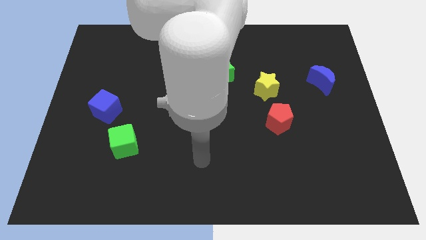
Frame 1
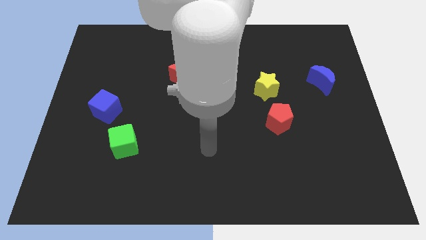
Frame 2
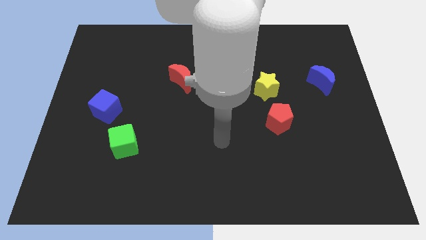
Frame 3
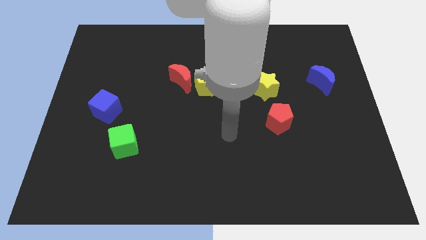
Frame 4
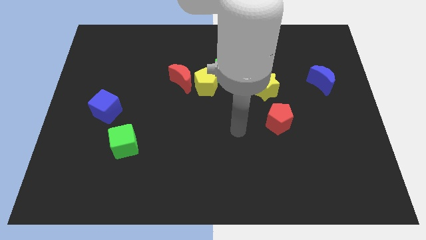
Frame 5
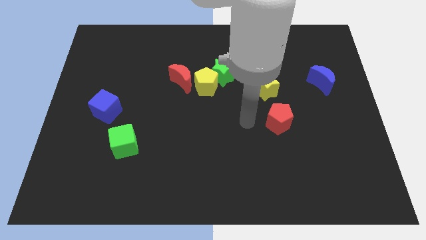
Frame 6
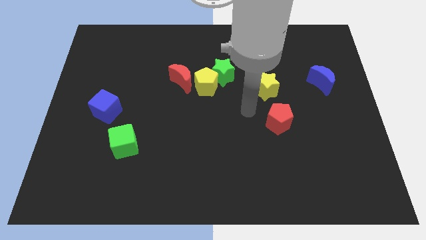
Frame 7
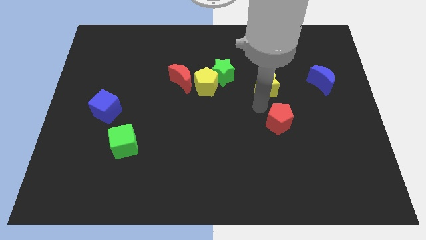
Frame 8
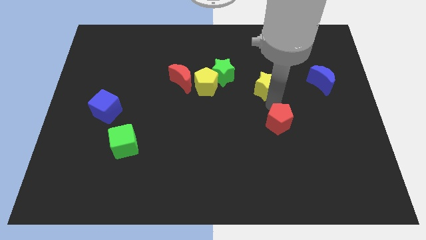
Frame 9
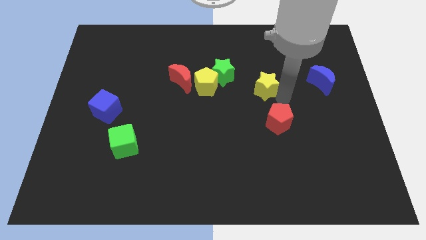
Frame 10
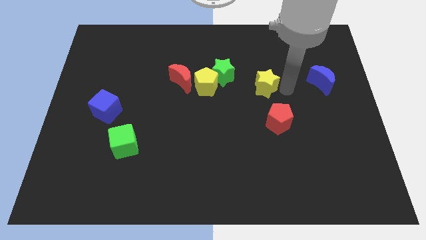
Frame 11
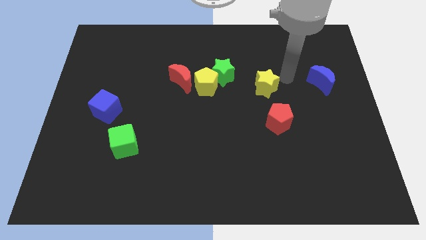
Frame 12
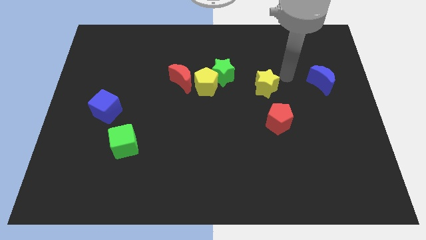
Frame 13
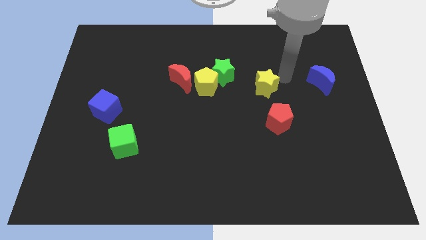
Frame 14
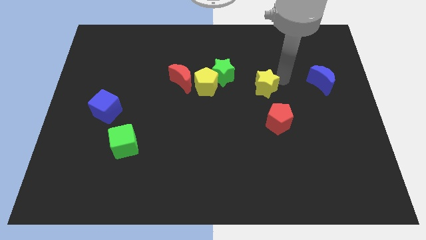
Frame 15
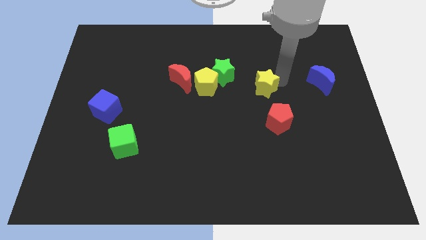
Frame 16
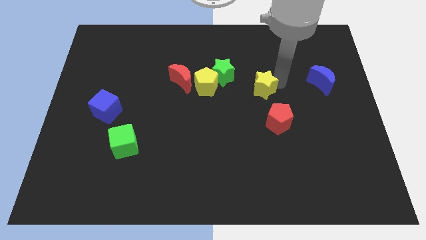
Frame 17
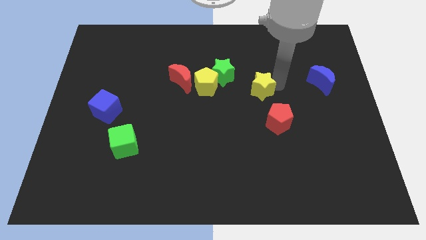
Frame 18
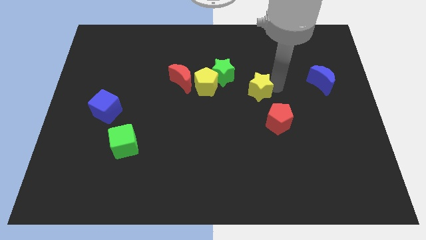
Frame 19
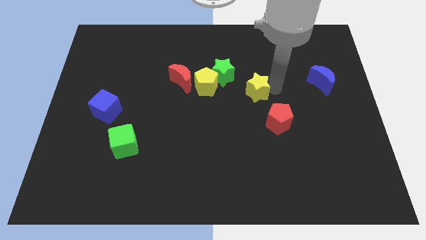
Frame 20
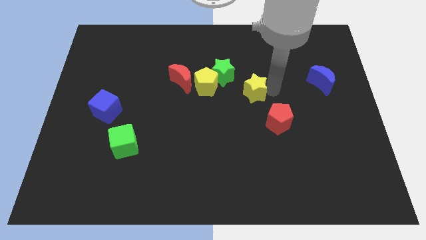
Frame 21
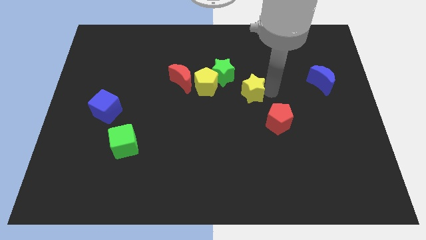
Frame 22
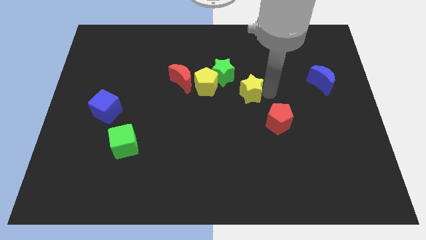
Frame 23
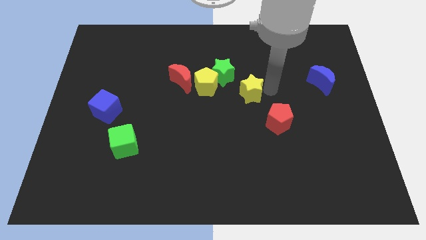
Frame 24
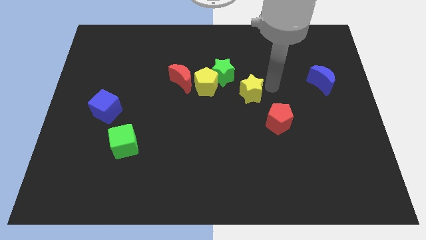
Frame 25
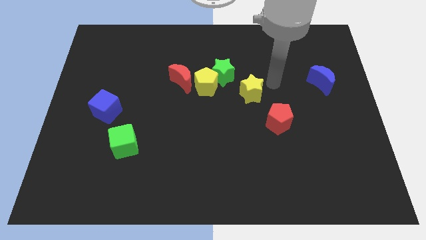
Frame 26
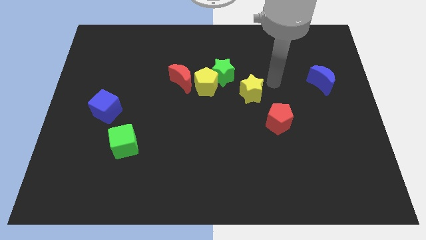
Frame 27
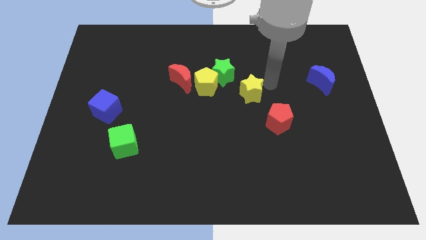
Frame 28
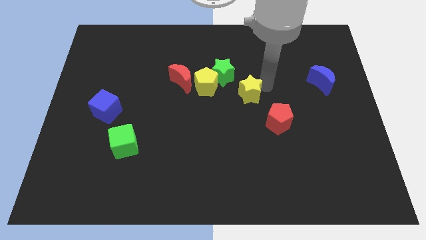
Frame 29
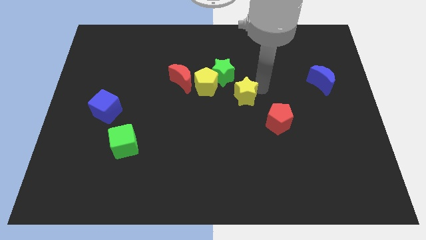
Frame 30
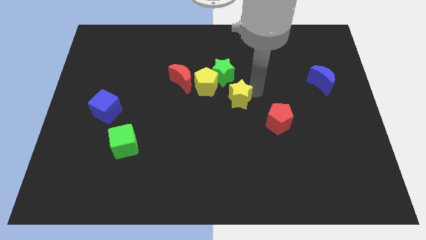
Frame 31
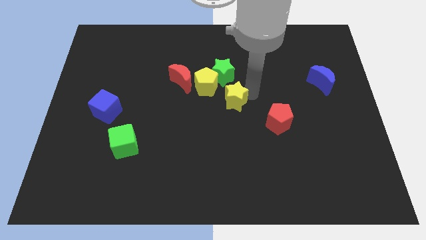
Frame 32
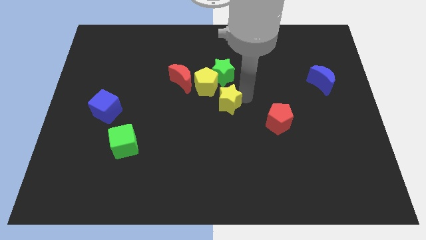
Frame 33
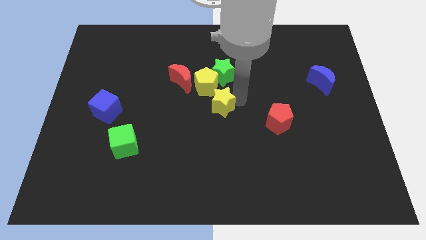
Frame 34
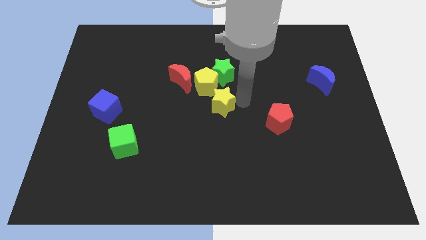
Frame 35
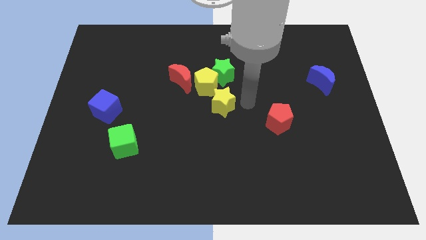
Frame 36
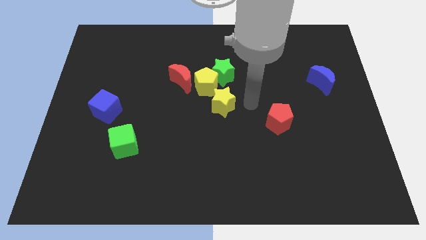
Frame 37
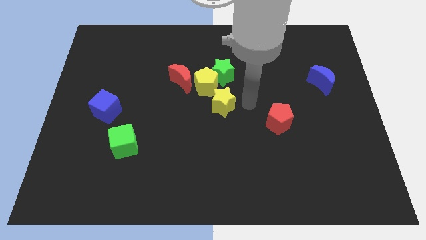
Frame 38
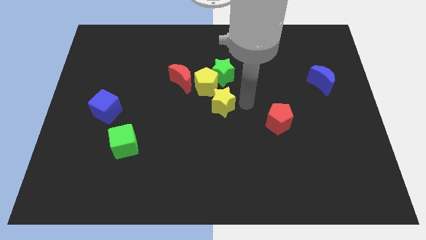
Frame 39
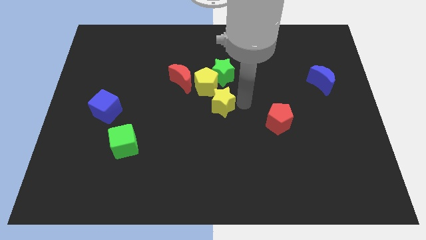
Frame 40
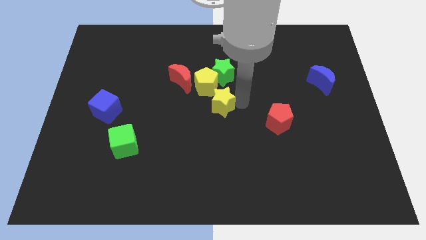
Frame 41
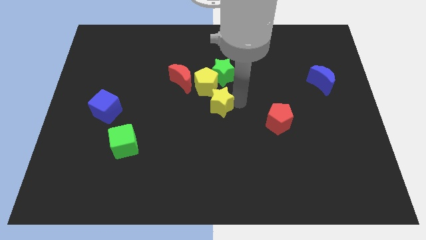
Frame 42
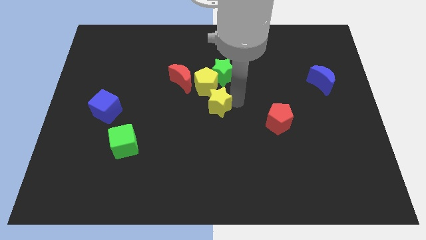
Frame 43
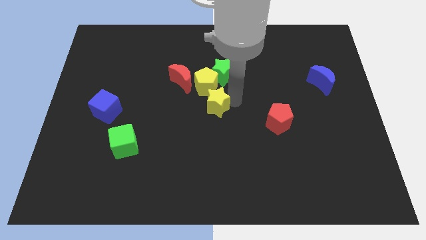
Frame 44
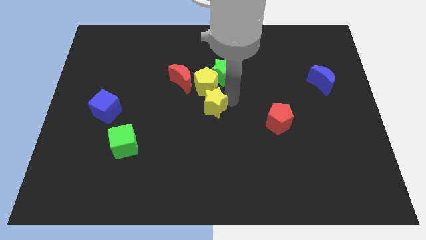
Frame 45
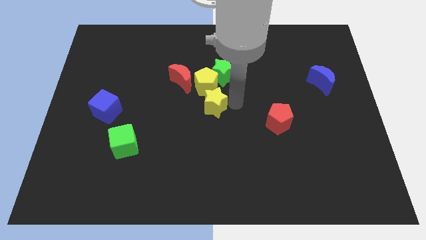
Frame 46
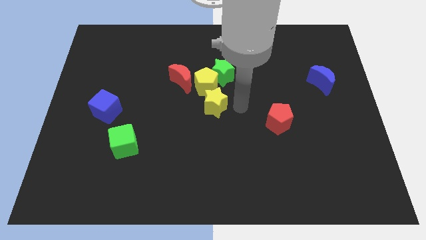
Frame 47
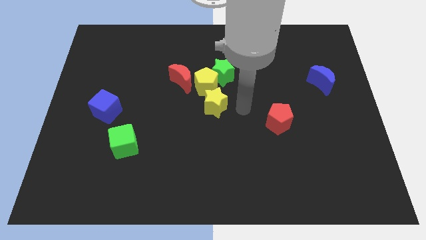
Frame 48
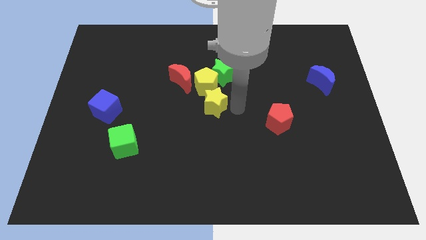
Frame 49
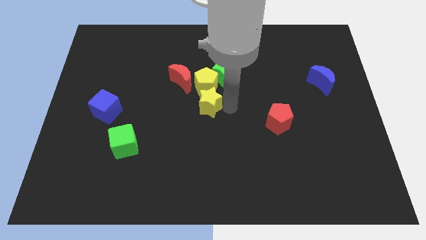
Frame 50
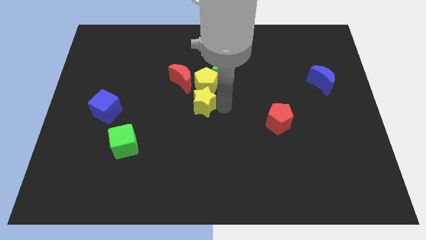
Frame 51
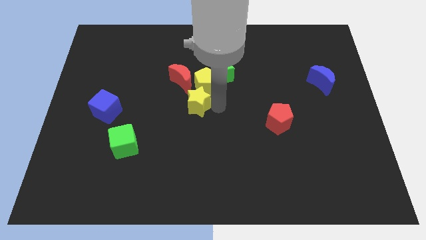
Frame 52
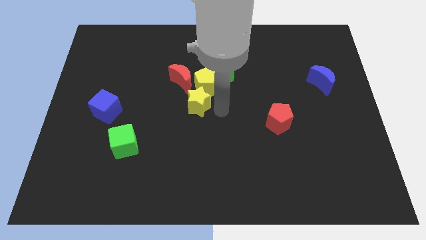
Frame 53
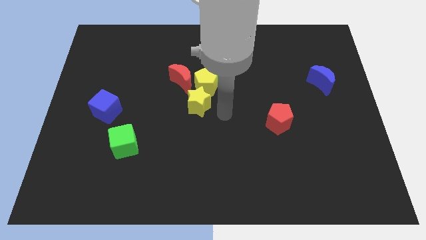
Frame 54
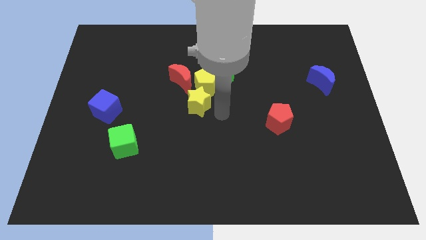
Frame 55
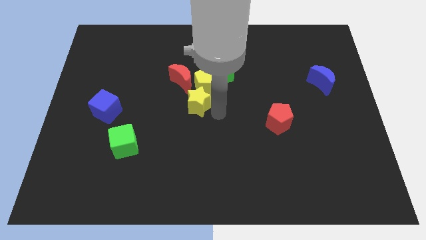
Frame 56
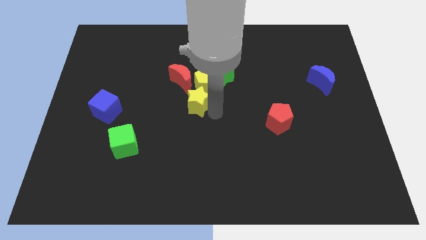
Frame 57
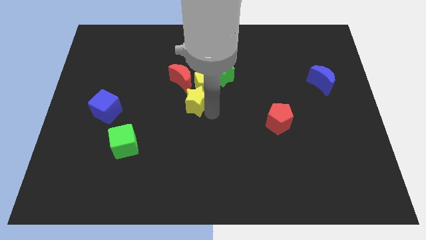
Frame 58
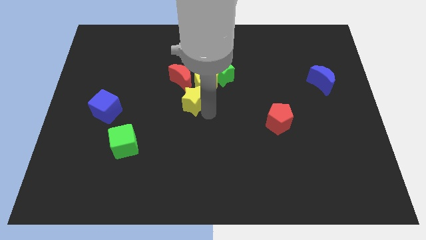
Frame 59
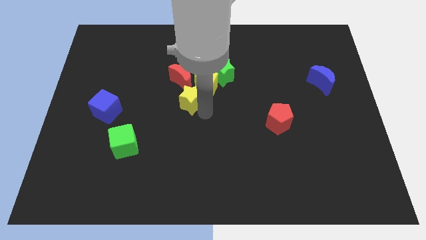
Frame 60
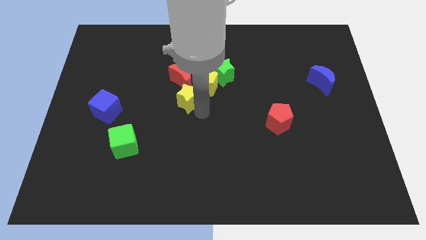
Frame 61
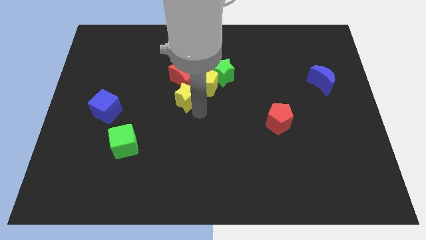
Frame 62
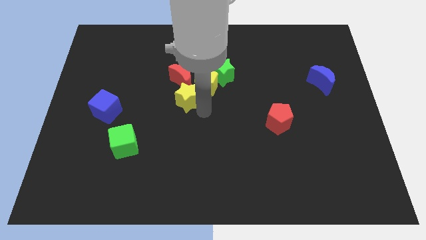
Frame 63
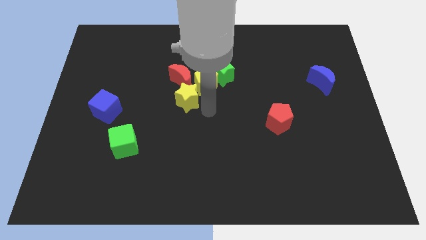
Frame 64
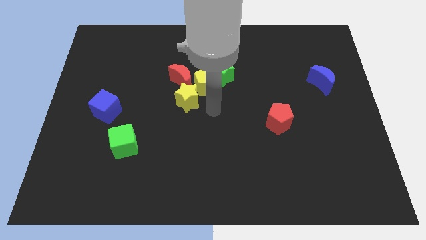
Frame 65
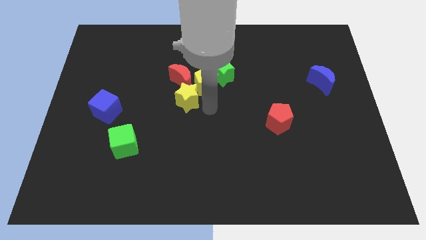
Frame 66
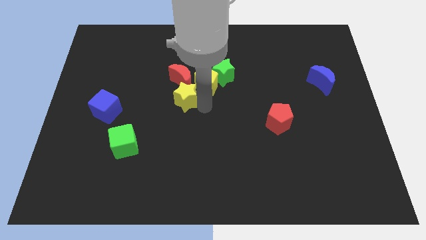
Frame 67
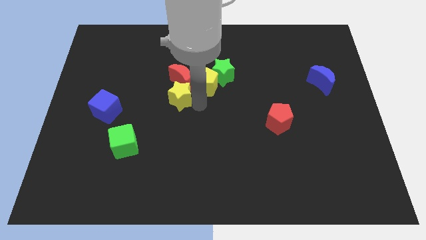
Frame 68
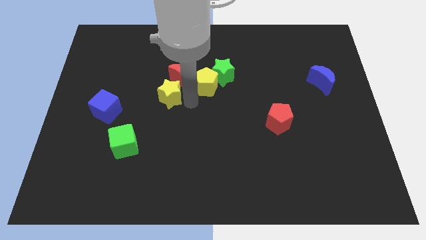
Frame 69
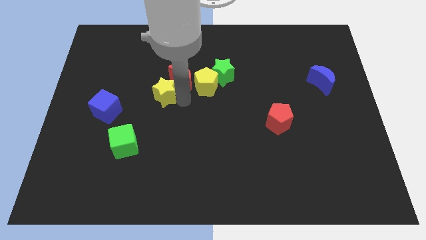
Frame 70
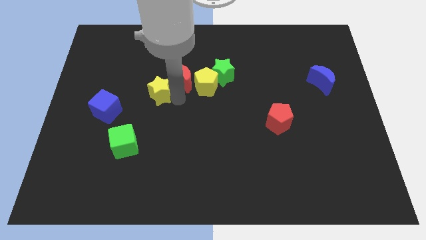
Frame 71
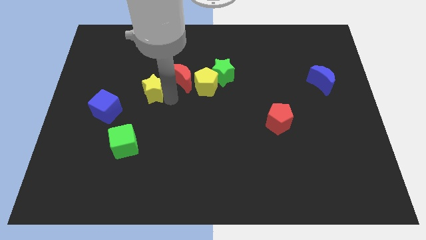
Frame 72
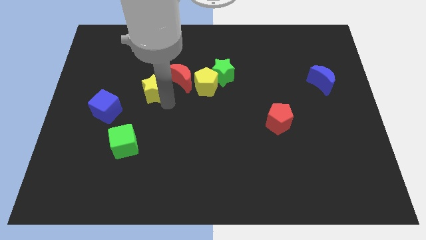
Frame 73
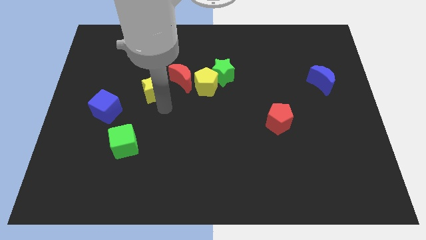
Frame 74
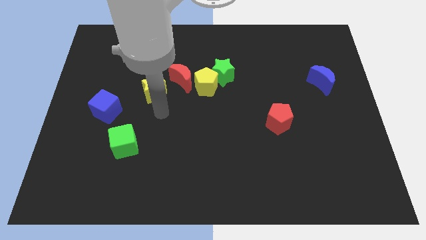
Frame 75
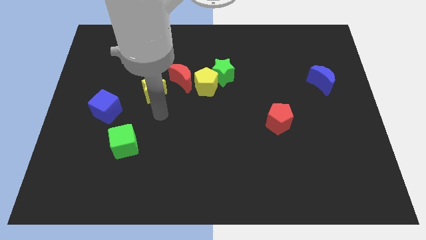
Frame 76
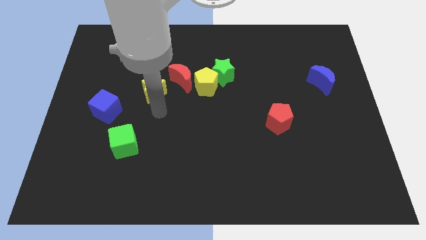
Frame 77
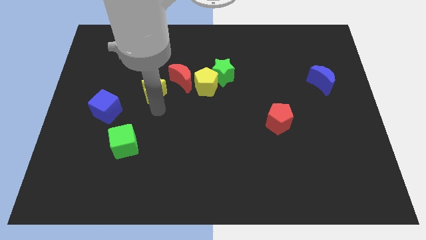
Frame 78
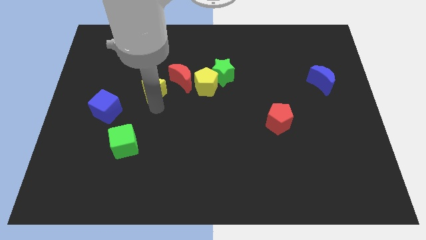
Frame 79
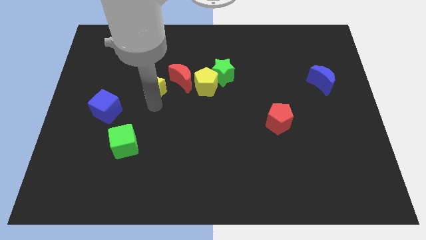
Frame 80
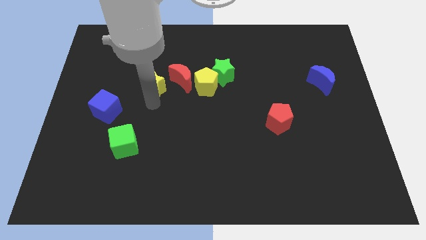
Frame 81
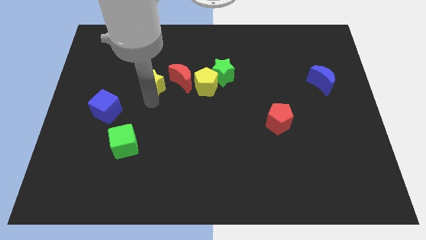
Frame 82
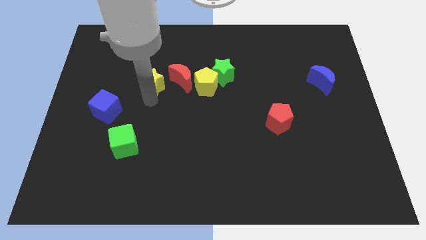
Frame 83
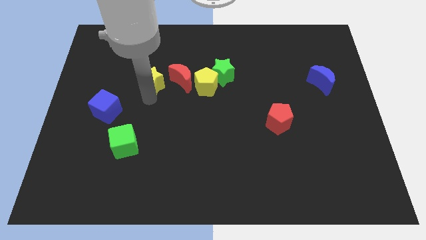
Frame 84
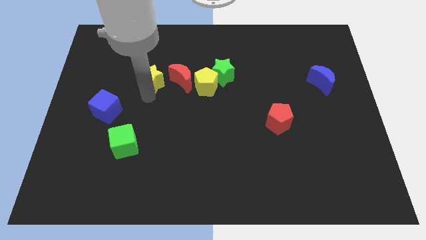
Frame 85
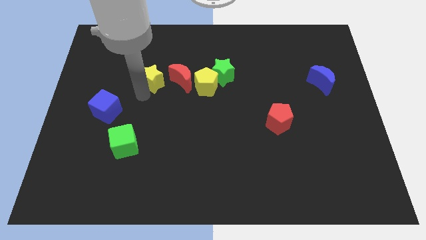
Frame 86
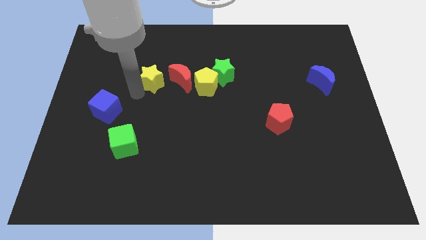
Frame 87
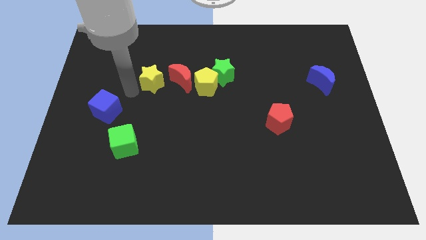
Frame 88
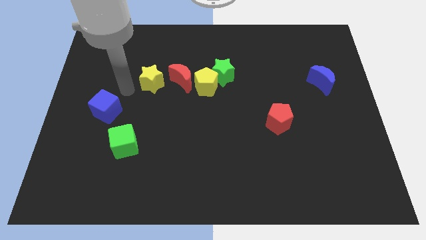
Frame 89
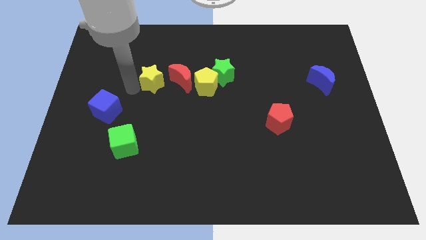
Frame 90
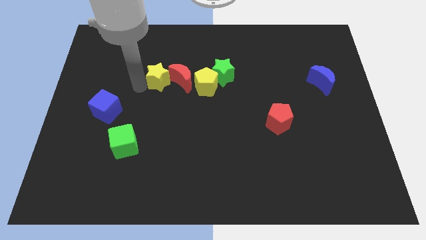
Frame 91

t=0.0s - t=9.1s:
slide the yellow star left of the green star
